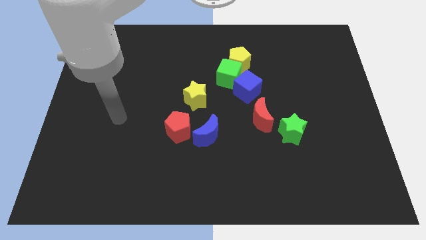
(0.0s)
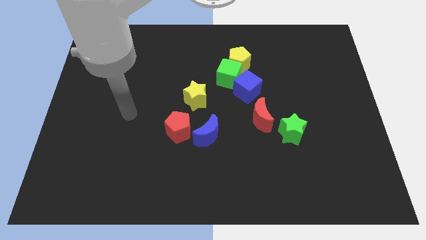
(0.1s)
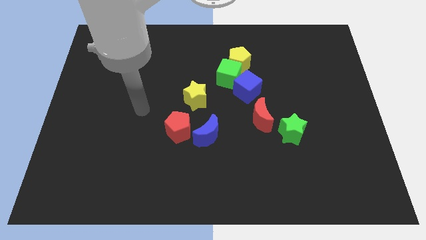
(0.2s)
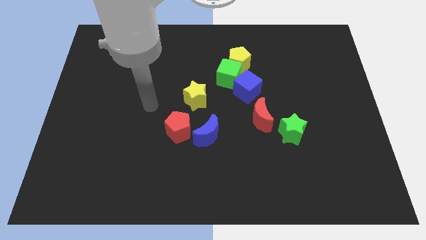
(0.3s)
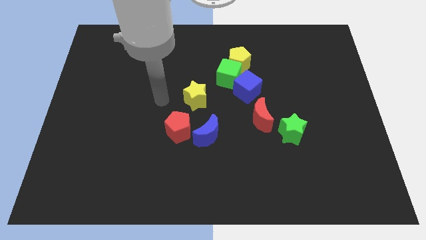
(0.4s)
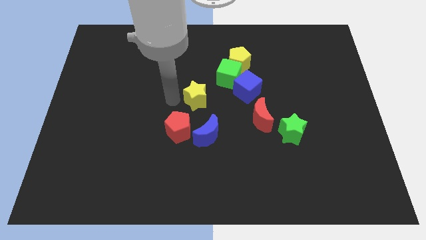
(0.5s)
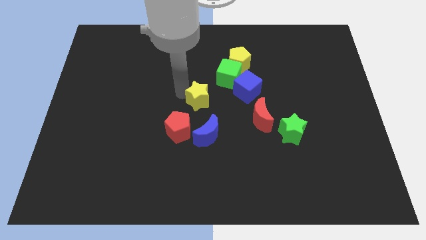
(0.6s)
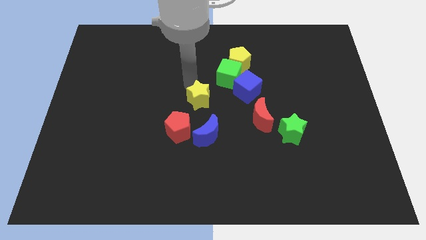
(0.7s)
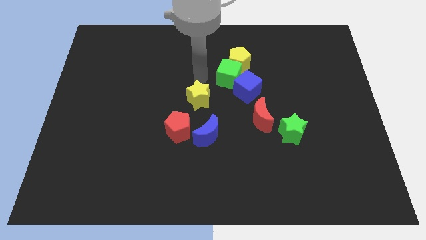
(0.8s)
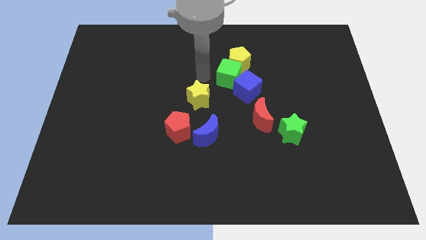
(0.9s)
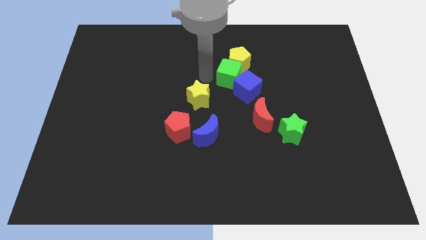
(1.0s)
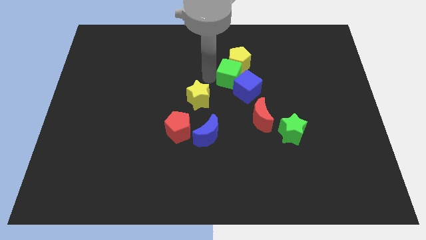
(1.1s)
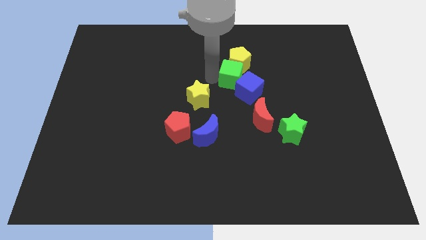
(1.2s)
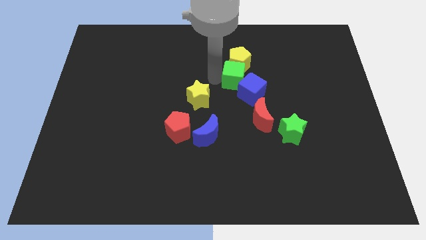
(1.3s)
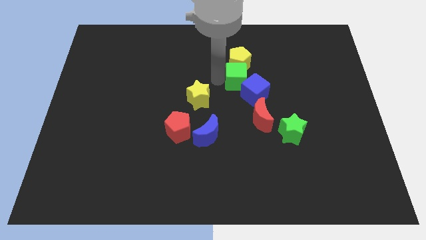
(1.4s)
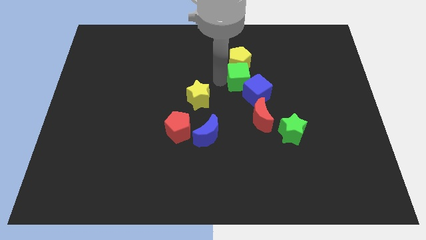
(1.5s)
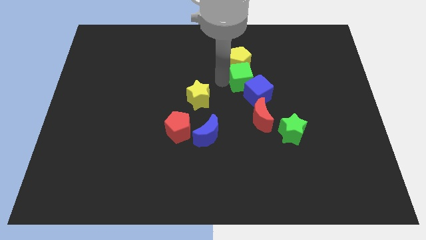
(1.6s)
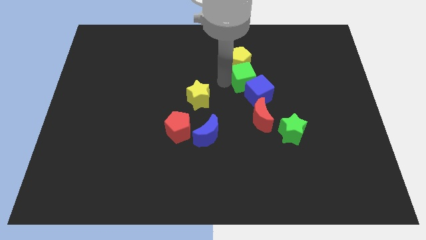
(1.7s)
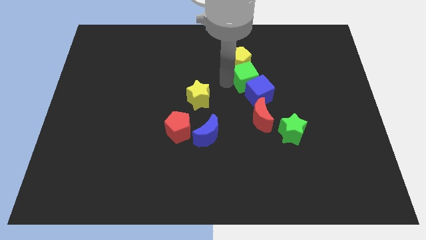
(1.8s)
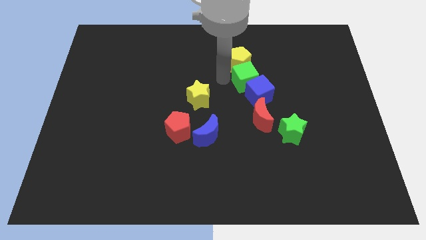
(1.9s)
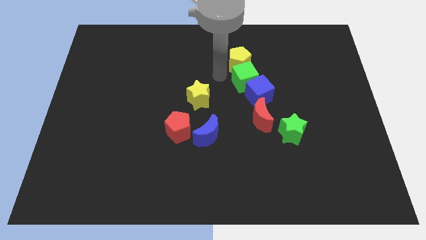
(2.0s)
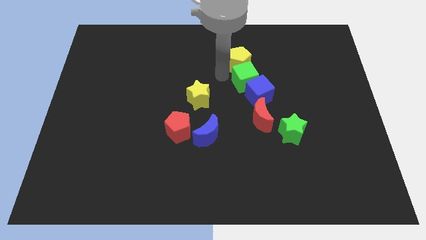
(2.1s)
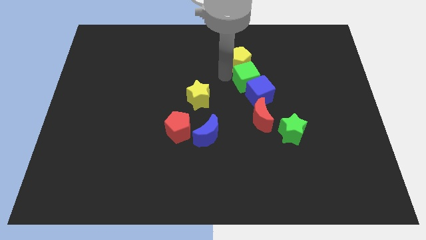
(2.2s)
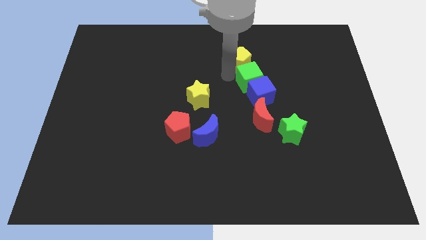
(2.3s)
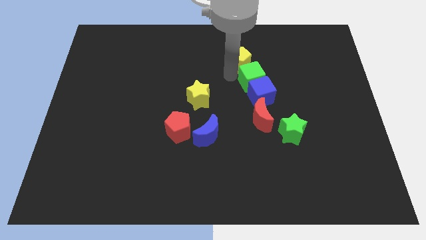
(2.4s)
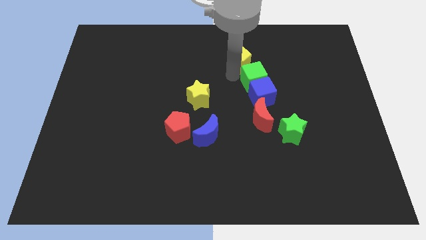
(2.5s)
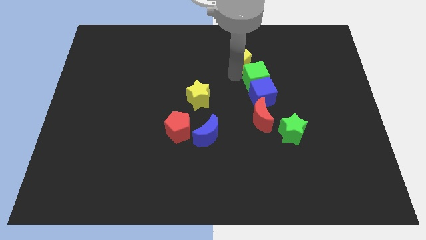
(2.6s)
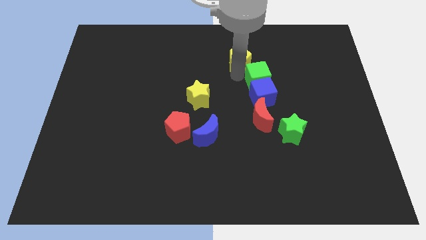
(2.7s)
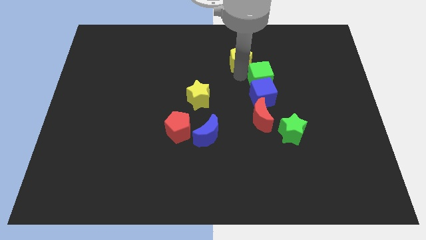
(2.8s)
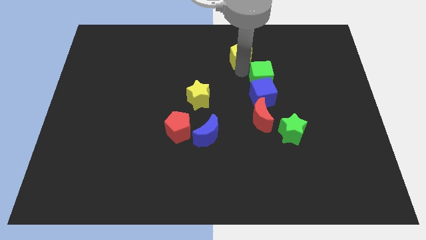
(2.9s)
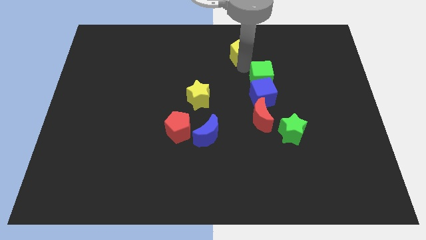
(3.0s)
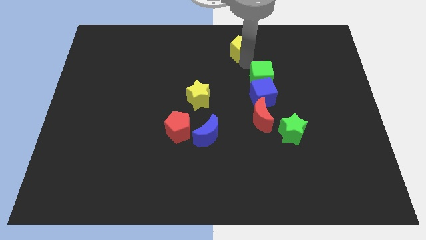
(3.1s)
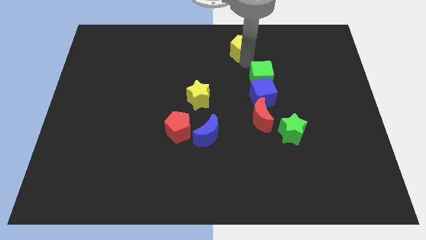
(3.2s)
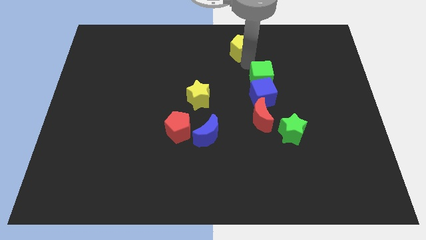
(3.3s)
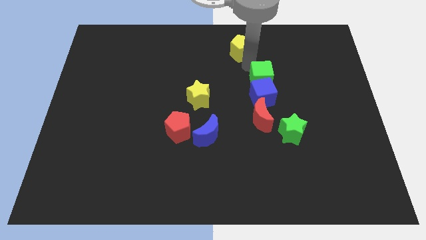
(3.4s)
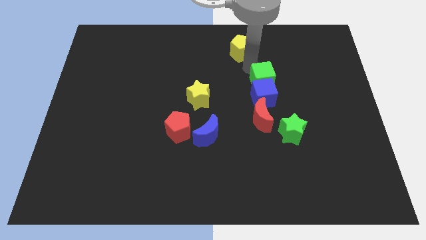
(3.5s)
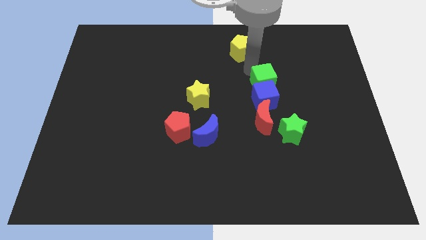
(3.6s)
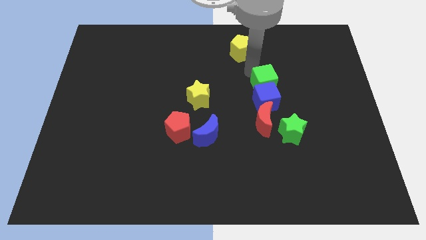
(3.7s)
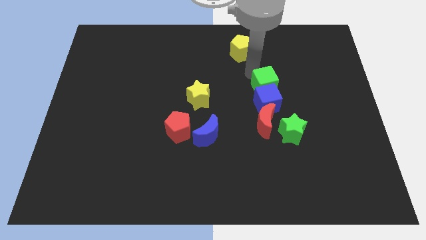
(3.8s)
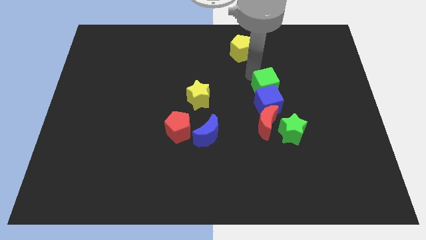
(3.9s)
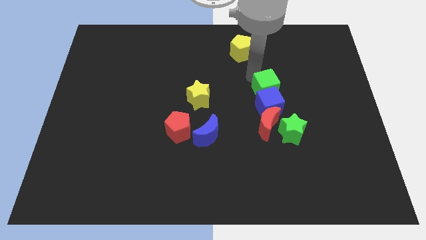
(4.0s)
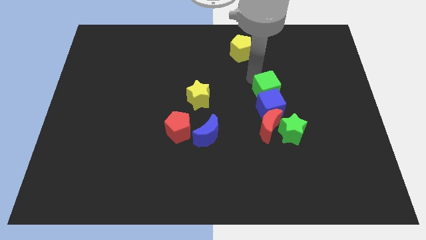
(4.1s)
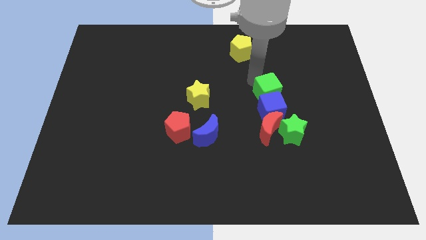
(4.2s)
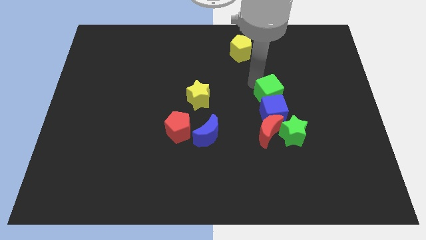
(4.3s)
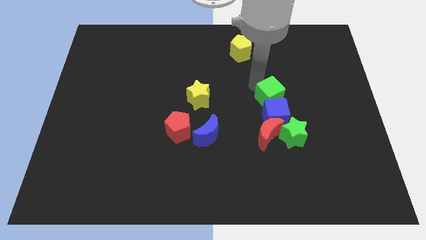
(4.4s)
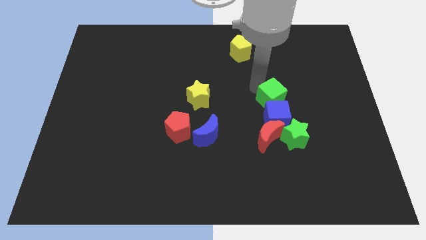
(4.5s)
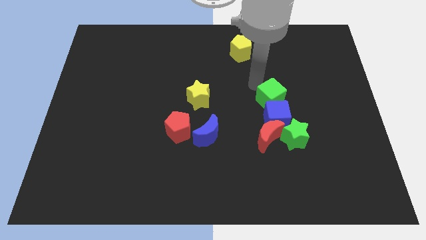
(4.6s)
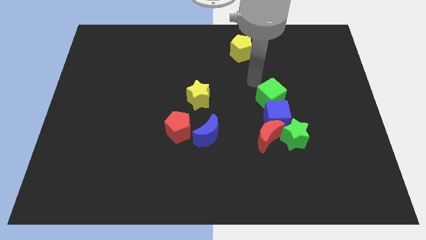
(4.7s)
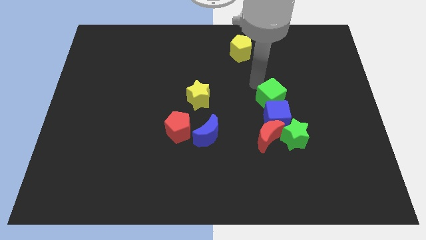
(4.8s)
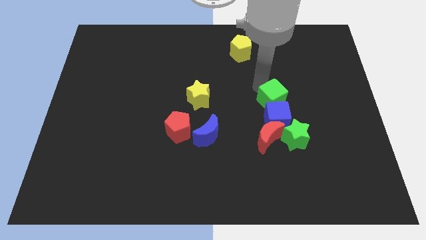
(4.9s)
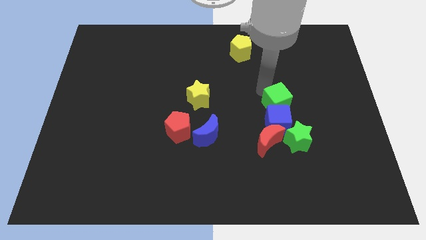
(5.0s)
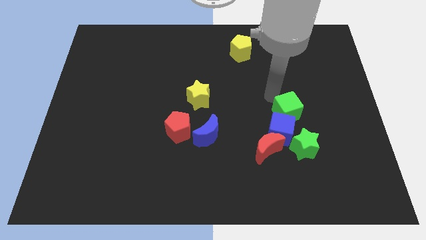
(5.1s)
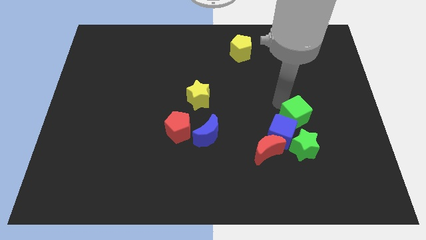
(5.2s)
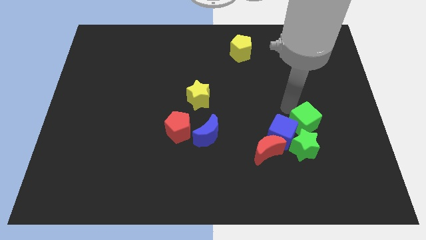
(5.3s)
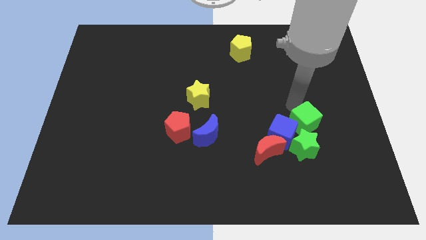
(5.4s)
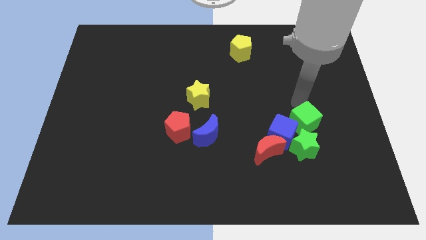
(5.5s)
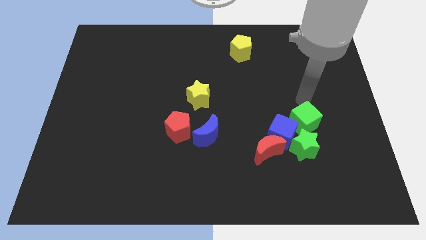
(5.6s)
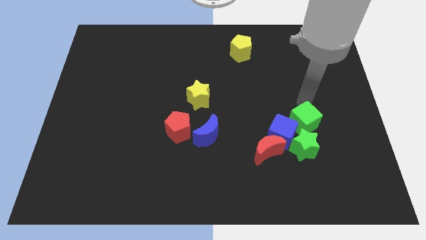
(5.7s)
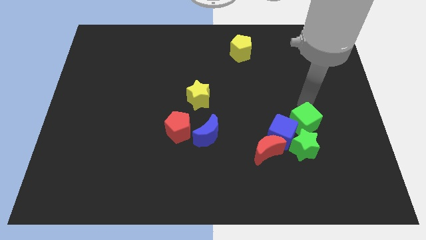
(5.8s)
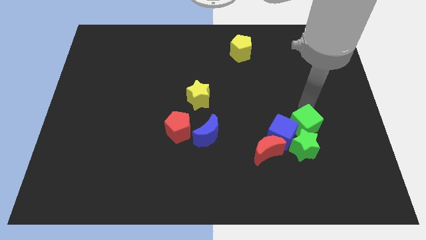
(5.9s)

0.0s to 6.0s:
put the green cube close to the green star

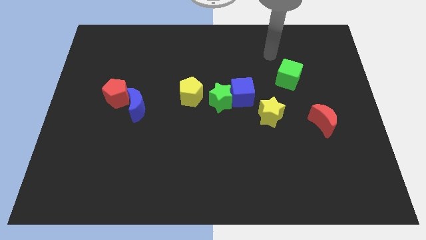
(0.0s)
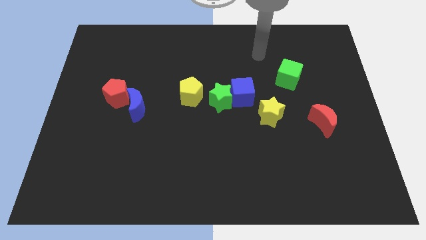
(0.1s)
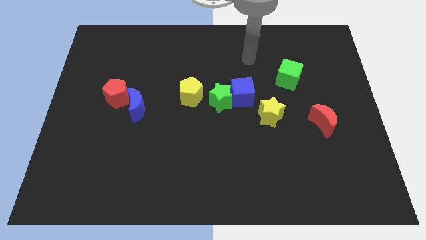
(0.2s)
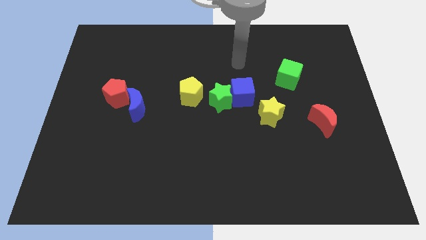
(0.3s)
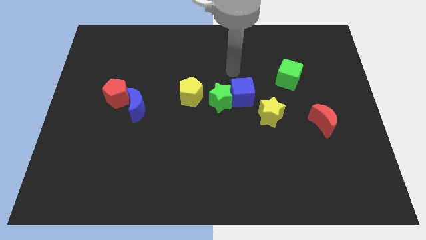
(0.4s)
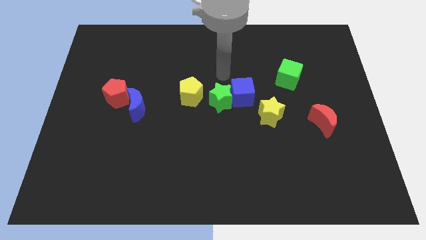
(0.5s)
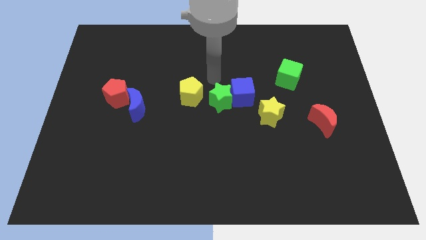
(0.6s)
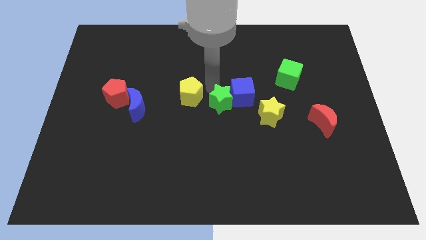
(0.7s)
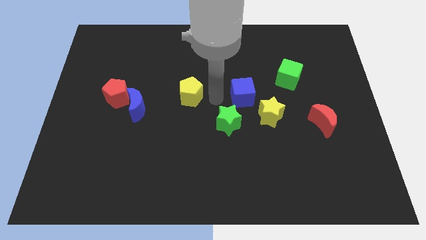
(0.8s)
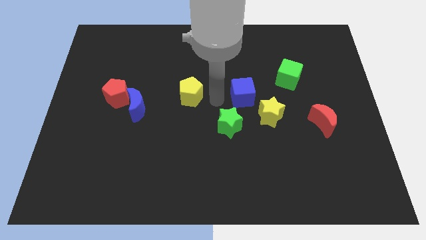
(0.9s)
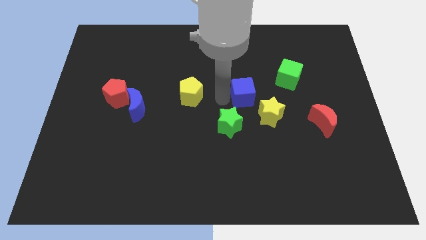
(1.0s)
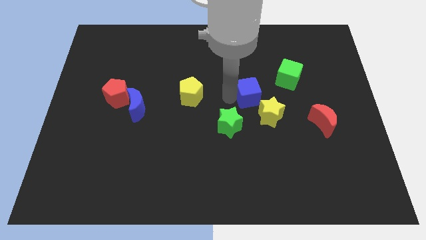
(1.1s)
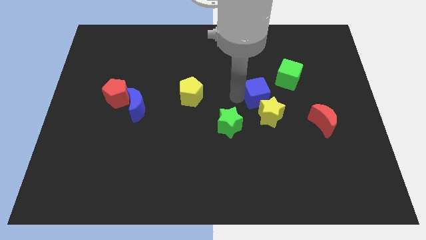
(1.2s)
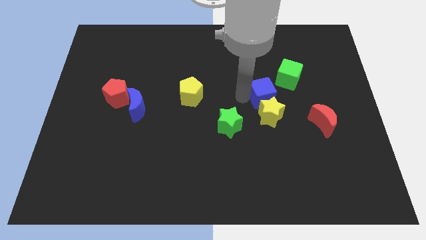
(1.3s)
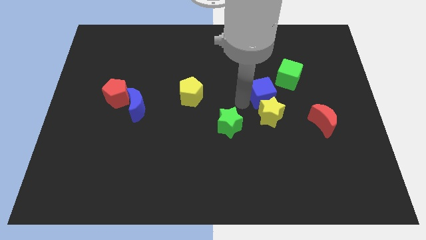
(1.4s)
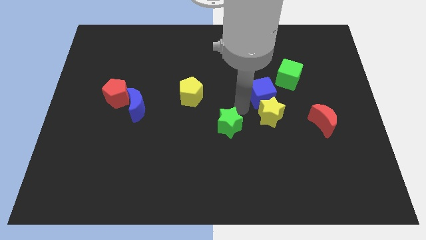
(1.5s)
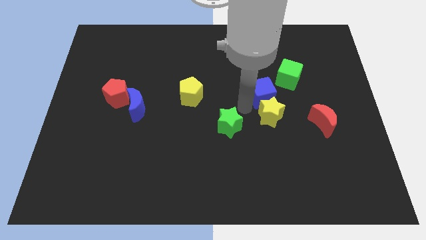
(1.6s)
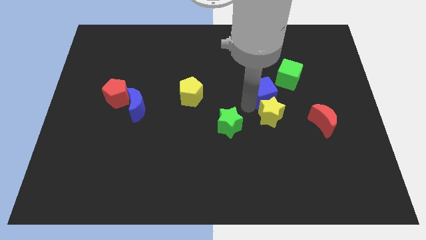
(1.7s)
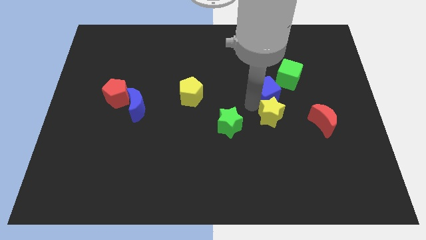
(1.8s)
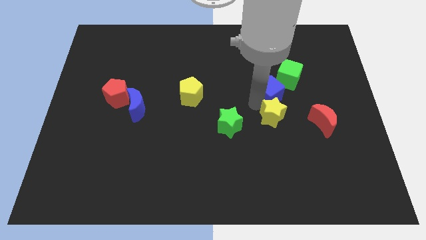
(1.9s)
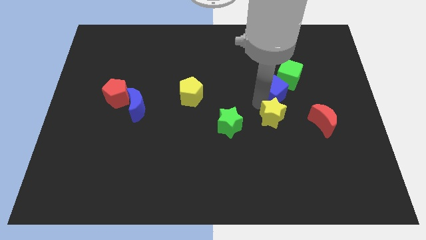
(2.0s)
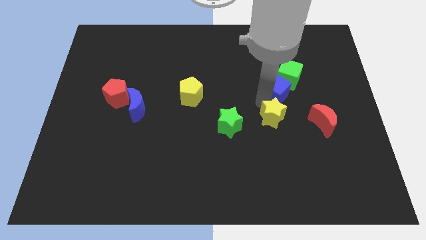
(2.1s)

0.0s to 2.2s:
slide the blue cube towards the green cube
